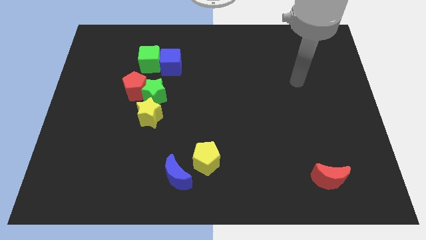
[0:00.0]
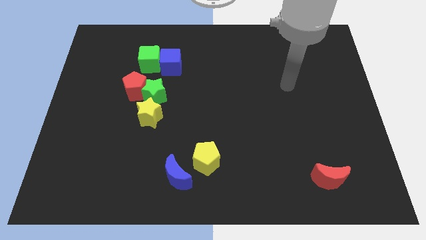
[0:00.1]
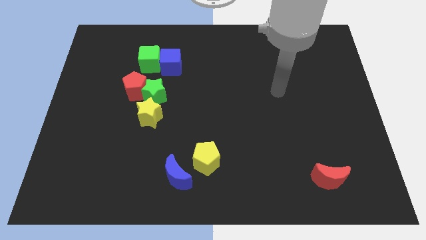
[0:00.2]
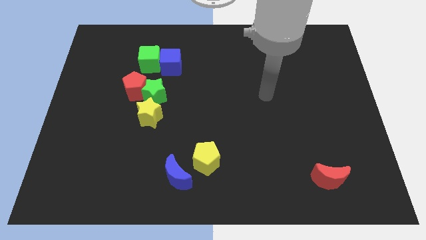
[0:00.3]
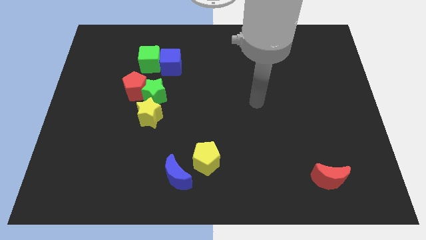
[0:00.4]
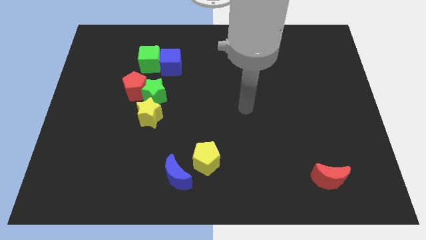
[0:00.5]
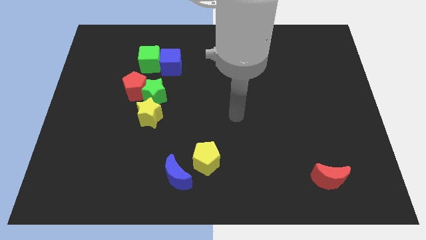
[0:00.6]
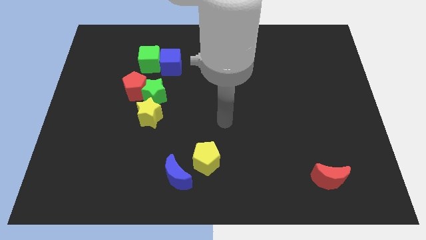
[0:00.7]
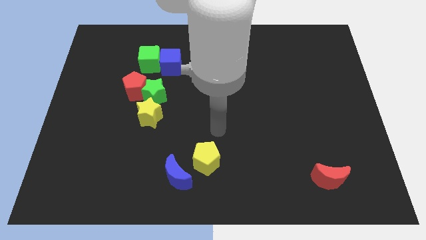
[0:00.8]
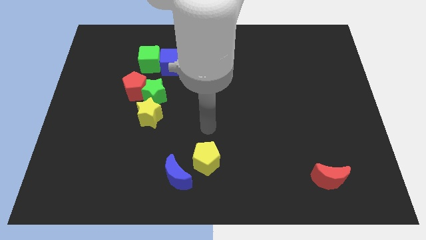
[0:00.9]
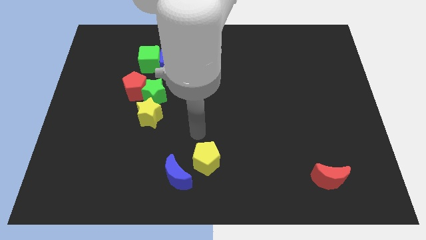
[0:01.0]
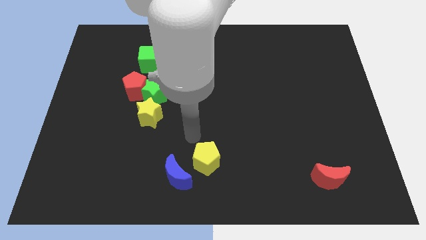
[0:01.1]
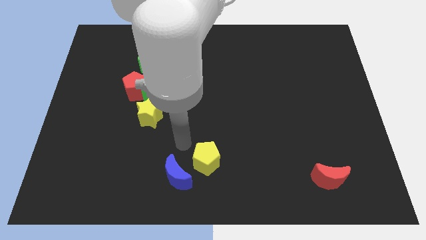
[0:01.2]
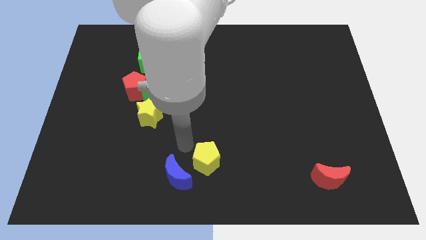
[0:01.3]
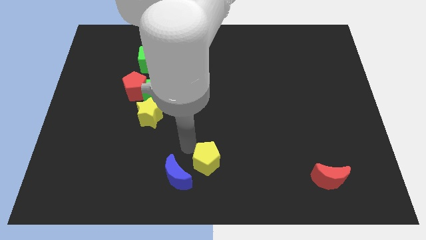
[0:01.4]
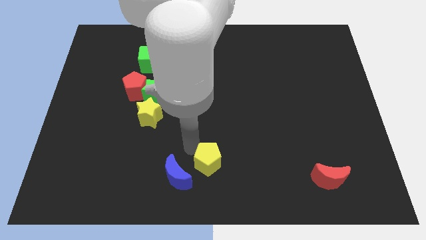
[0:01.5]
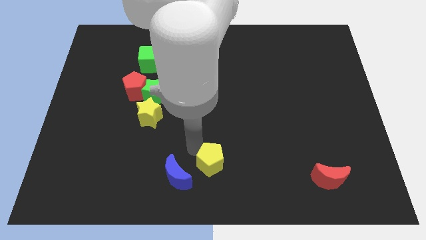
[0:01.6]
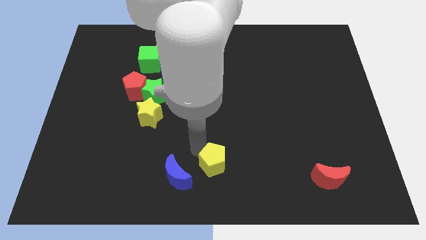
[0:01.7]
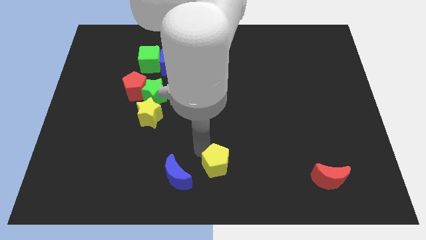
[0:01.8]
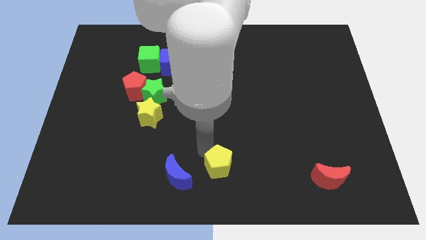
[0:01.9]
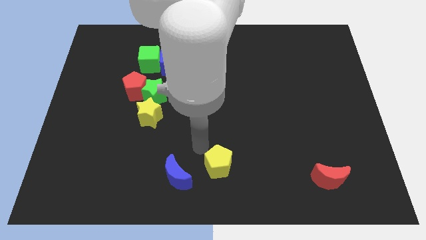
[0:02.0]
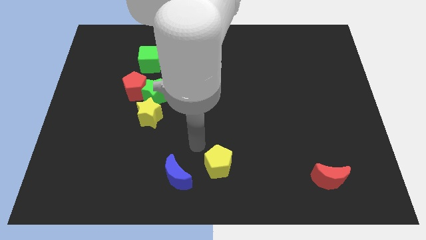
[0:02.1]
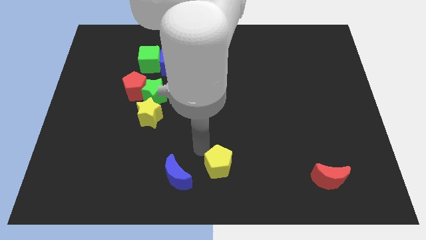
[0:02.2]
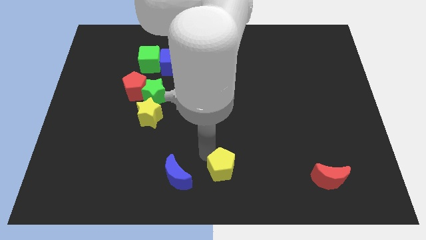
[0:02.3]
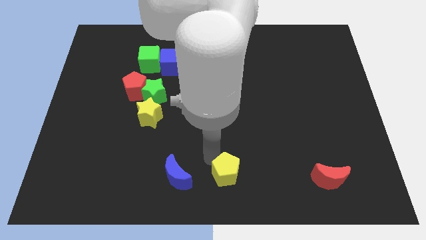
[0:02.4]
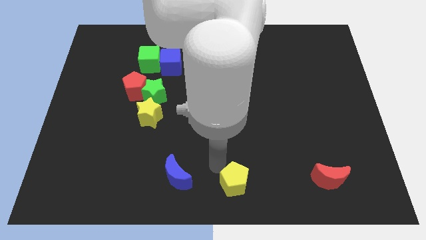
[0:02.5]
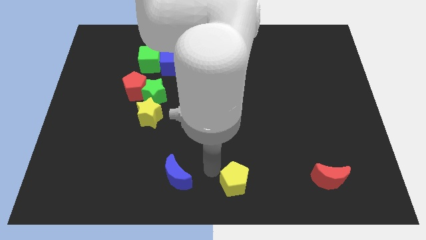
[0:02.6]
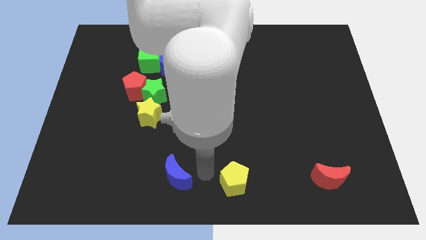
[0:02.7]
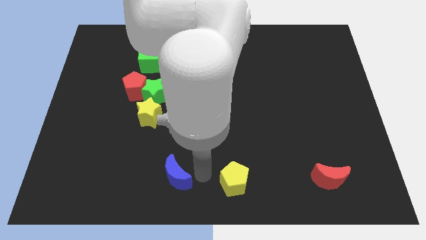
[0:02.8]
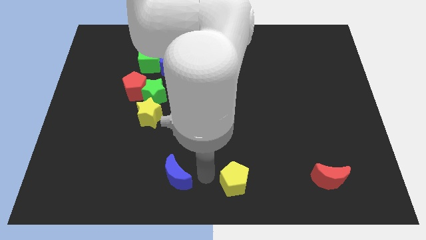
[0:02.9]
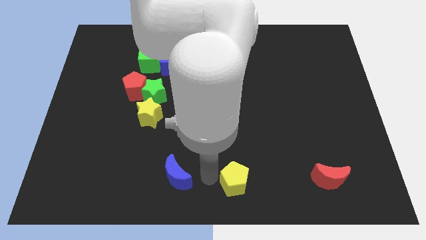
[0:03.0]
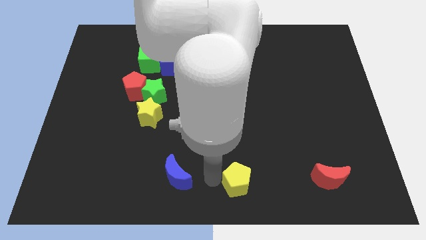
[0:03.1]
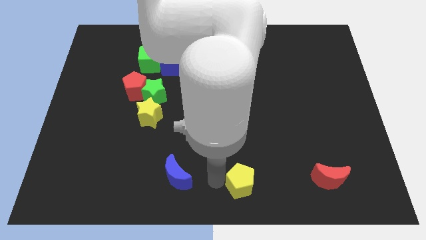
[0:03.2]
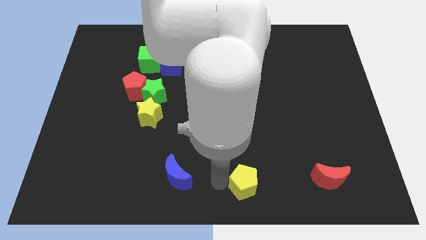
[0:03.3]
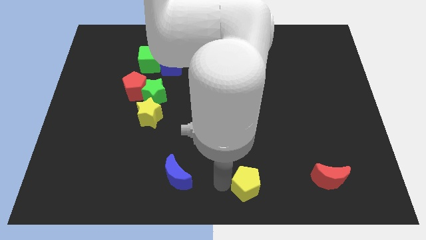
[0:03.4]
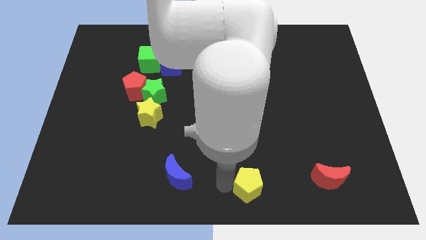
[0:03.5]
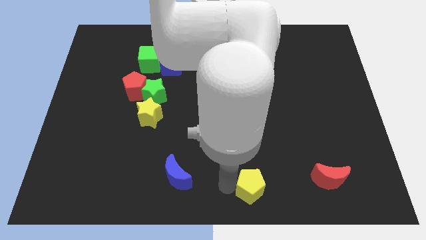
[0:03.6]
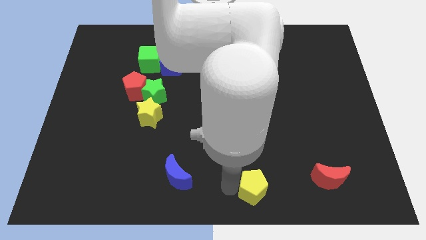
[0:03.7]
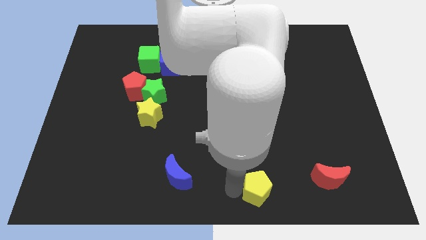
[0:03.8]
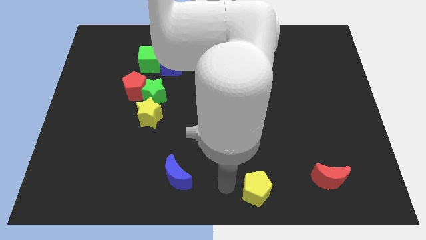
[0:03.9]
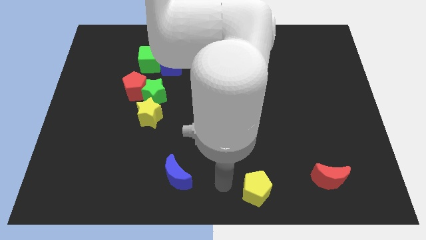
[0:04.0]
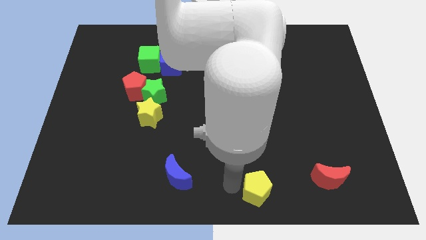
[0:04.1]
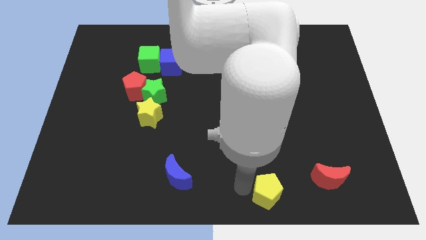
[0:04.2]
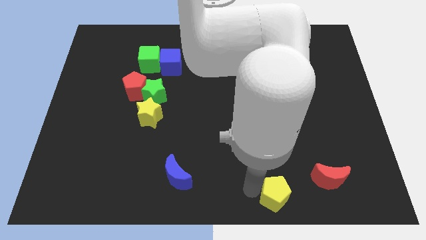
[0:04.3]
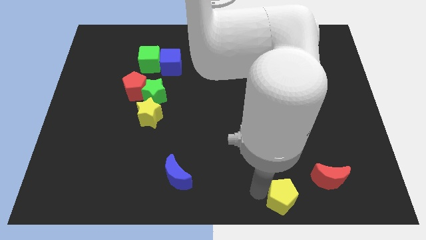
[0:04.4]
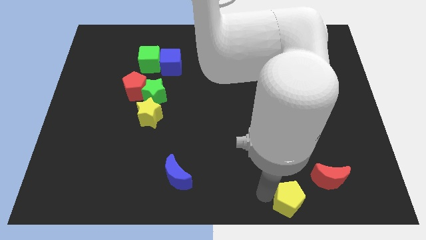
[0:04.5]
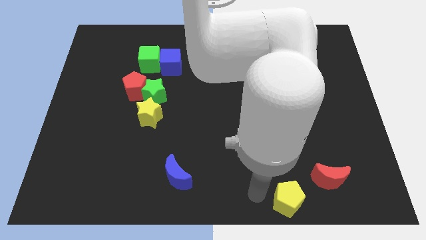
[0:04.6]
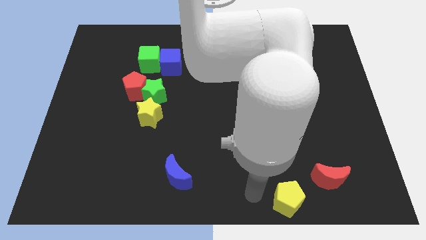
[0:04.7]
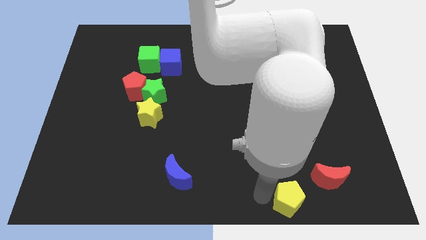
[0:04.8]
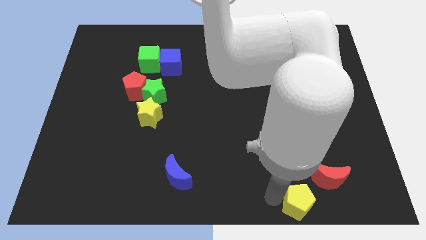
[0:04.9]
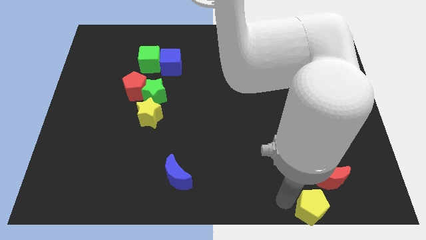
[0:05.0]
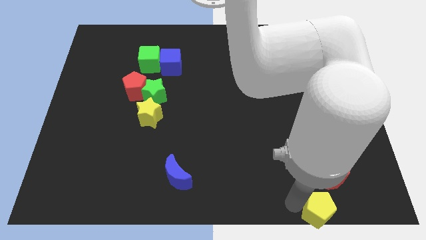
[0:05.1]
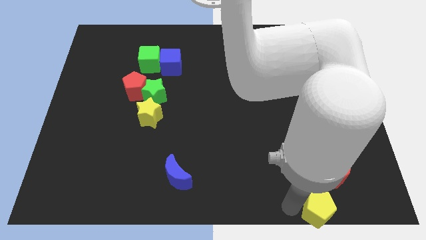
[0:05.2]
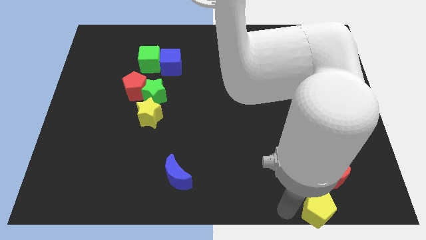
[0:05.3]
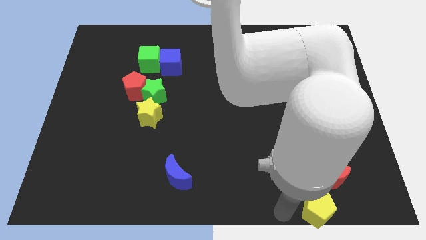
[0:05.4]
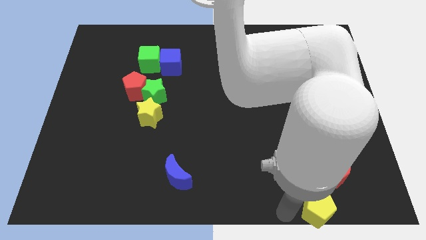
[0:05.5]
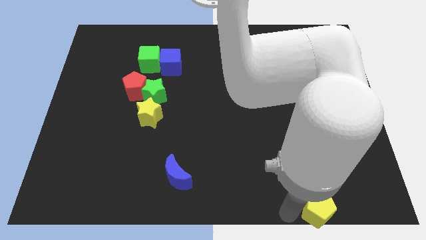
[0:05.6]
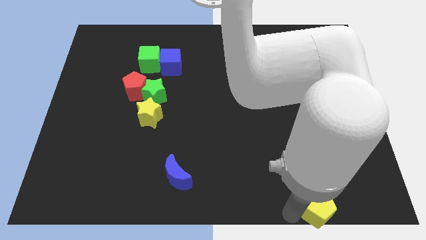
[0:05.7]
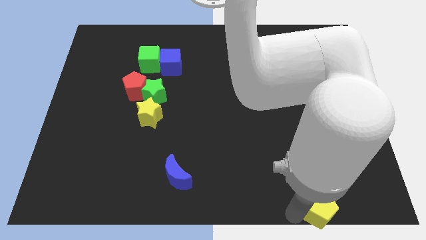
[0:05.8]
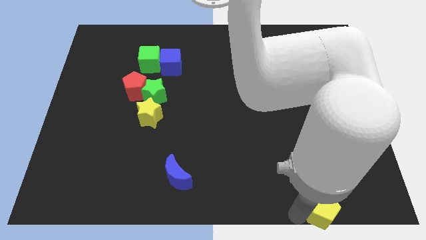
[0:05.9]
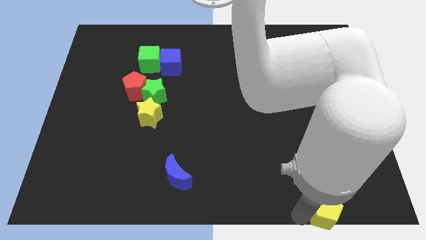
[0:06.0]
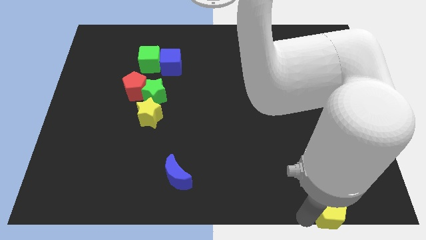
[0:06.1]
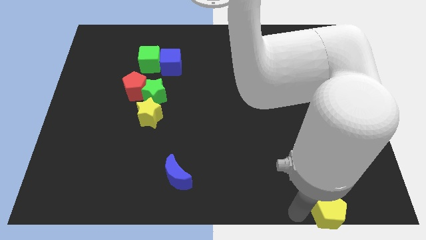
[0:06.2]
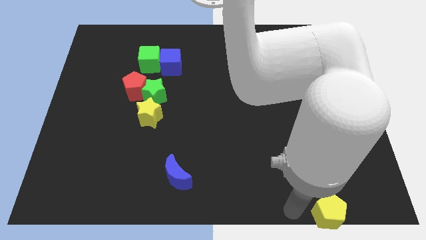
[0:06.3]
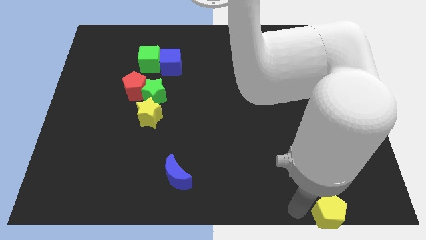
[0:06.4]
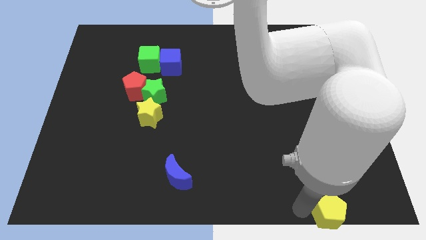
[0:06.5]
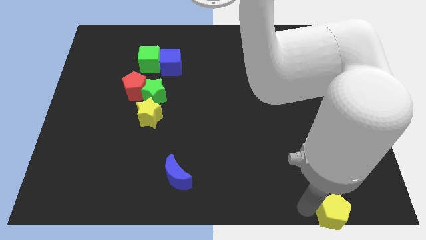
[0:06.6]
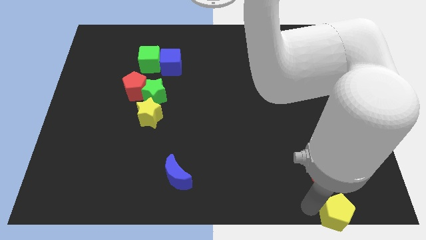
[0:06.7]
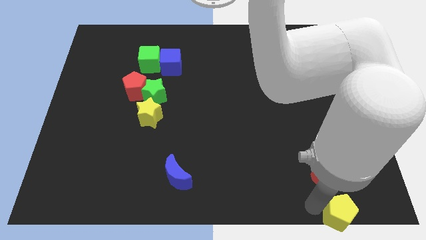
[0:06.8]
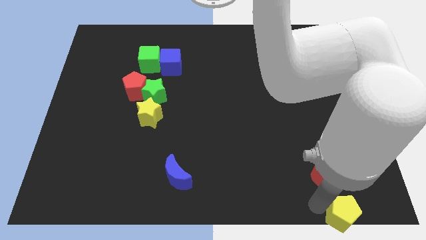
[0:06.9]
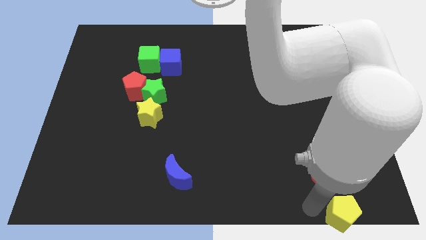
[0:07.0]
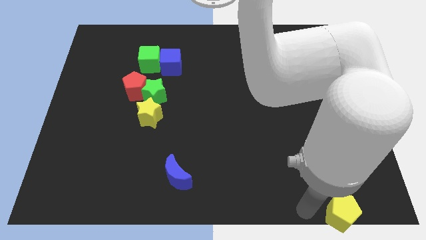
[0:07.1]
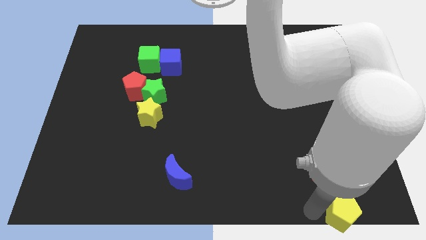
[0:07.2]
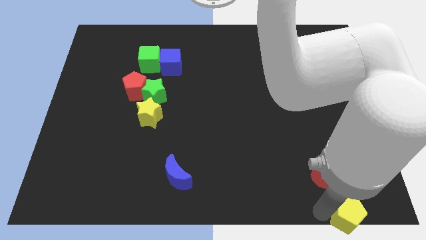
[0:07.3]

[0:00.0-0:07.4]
move the yellow pentagon to the bottom right

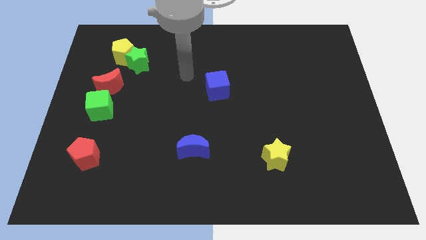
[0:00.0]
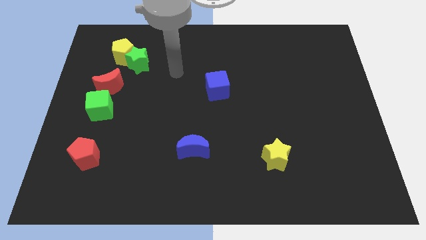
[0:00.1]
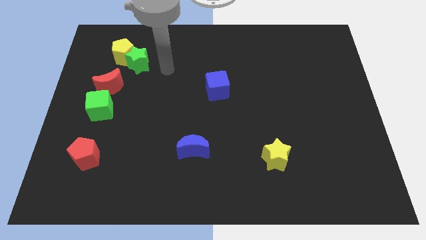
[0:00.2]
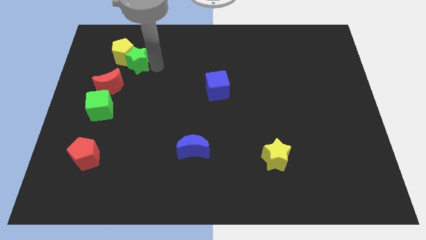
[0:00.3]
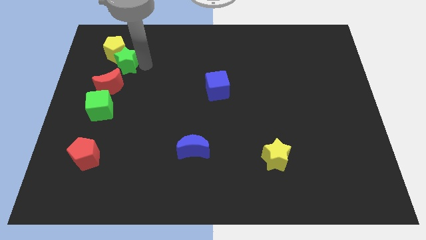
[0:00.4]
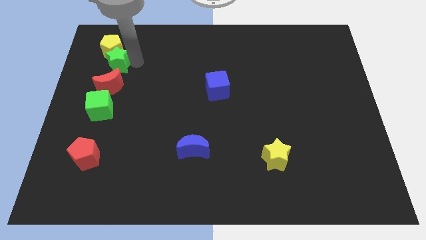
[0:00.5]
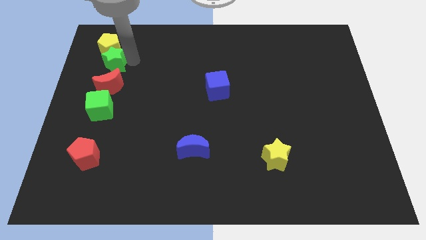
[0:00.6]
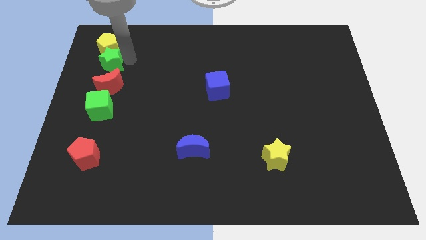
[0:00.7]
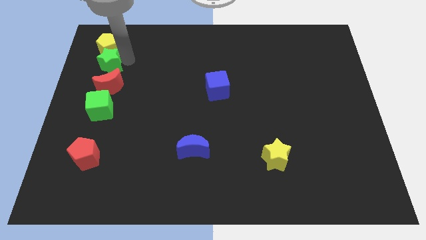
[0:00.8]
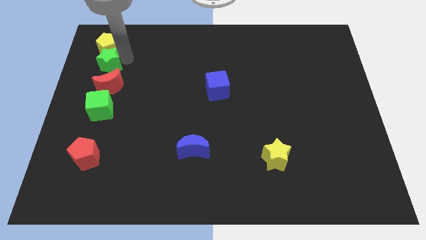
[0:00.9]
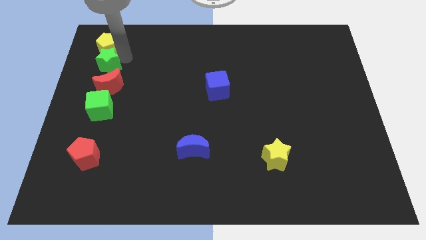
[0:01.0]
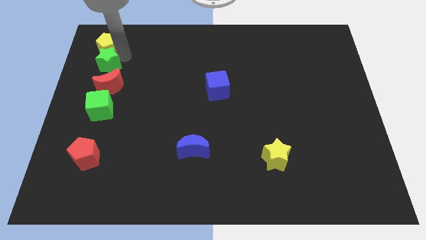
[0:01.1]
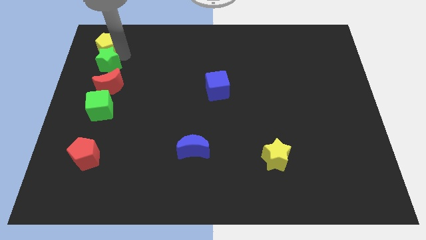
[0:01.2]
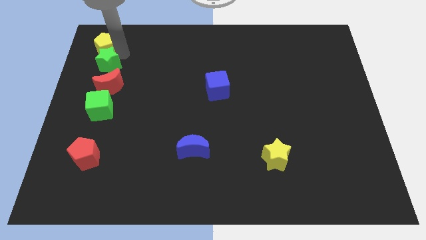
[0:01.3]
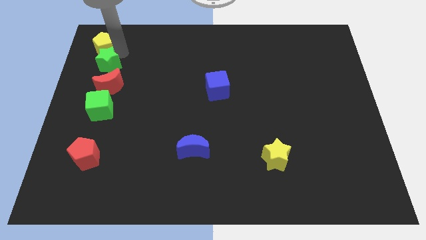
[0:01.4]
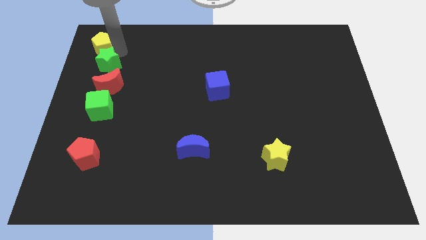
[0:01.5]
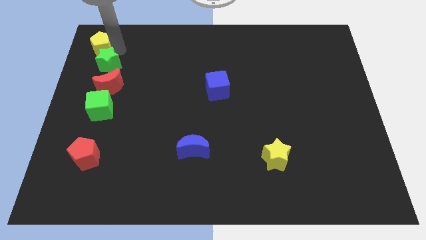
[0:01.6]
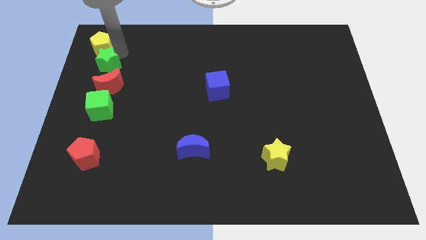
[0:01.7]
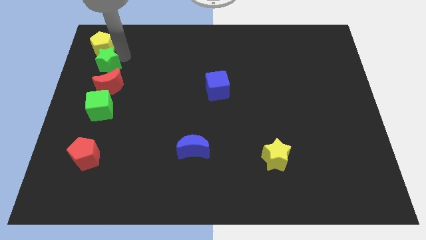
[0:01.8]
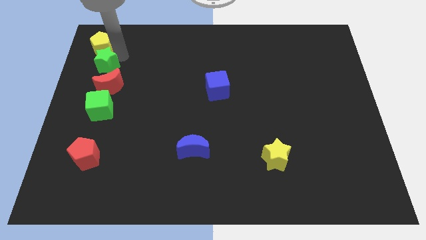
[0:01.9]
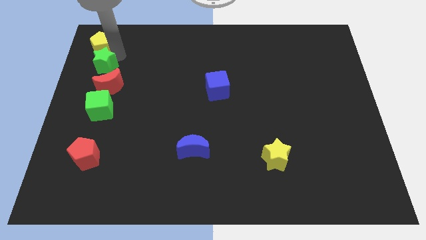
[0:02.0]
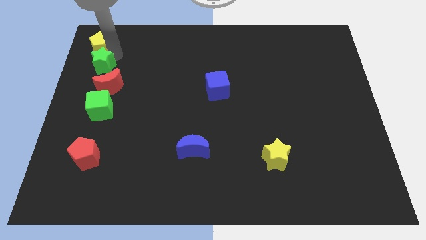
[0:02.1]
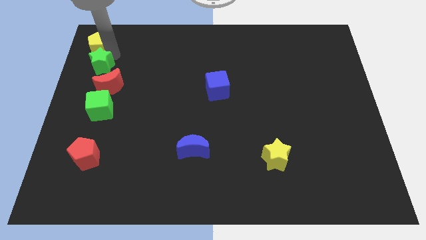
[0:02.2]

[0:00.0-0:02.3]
slide the yellow pentagon to the top left of the board
